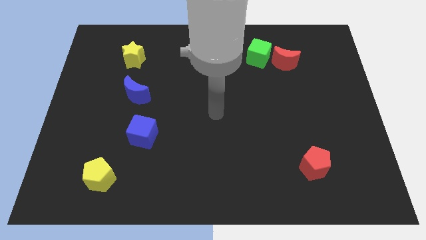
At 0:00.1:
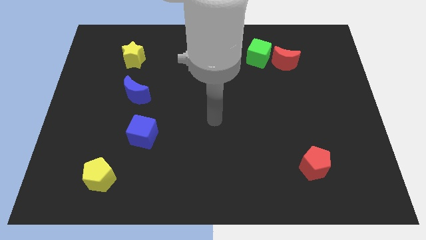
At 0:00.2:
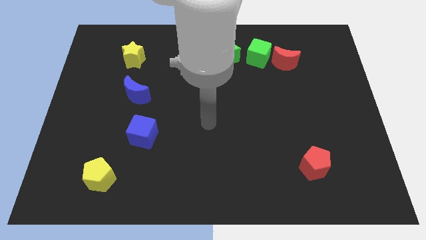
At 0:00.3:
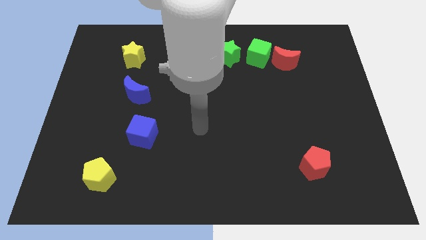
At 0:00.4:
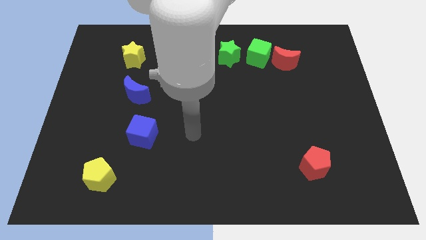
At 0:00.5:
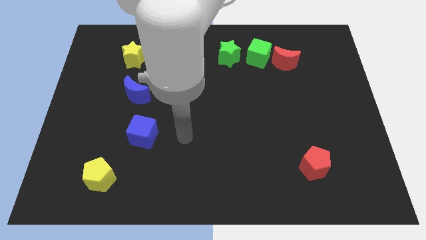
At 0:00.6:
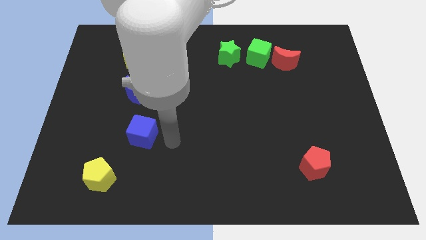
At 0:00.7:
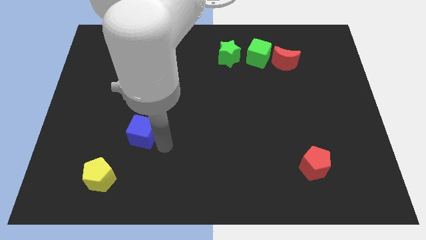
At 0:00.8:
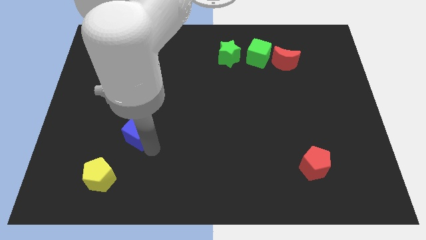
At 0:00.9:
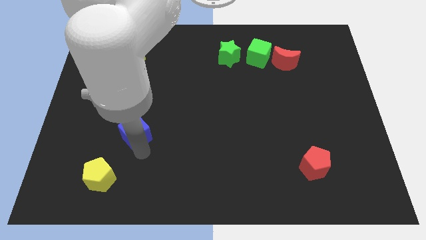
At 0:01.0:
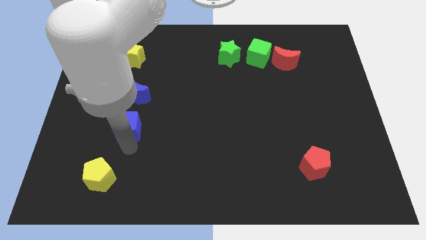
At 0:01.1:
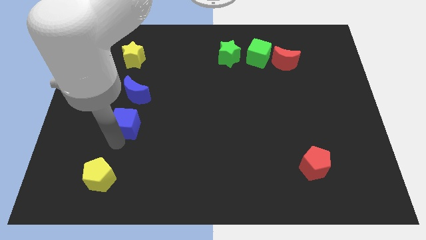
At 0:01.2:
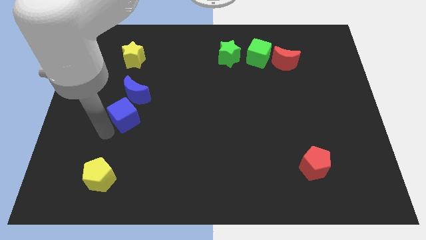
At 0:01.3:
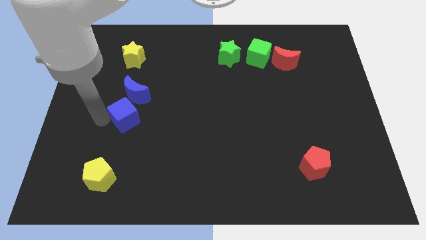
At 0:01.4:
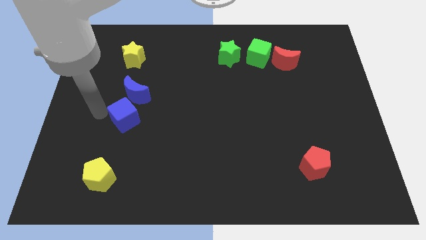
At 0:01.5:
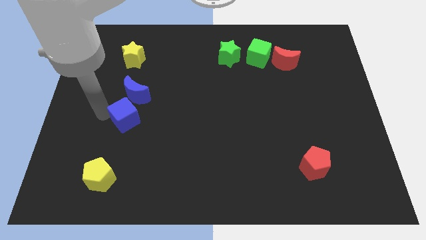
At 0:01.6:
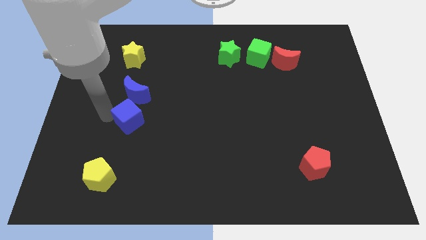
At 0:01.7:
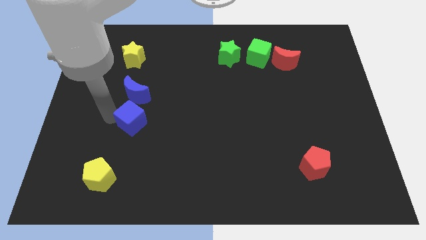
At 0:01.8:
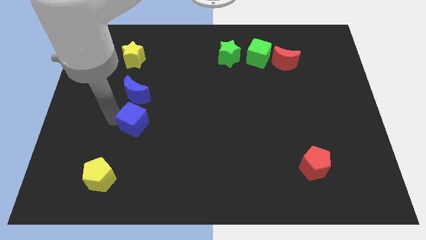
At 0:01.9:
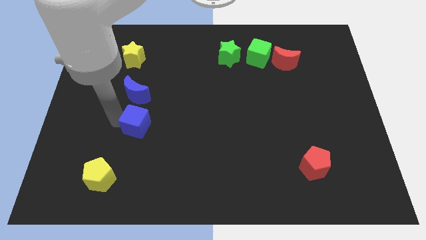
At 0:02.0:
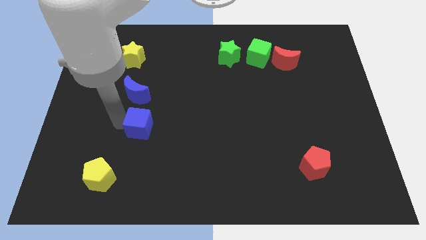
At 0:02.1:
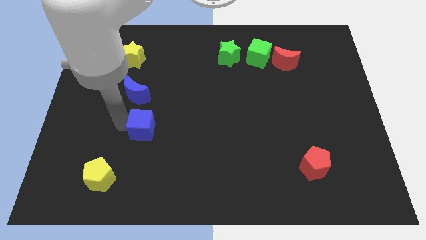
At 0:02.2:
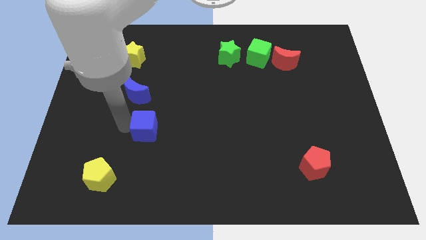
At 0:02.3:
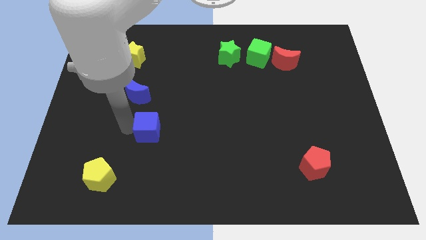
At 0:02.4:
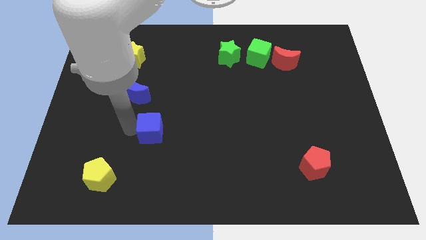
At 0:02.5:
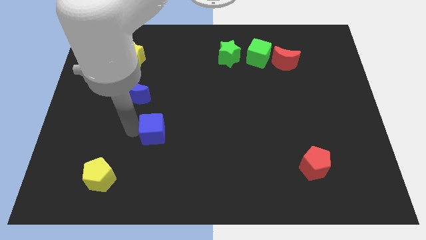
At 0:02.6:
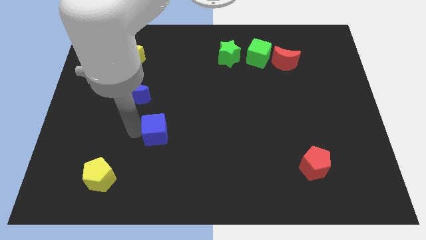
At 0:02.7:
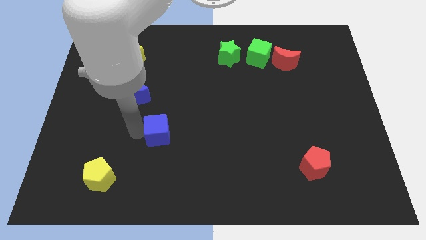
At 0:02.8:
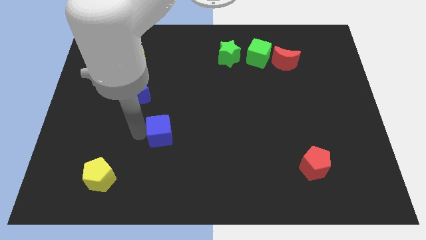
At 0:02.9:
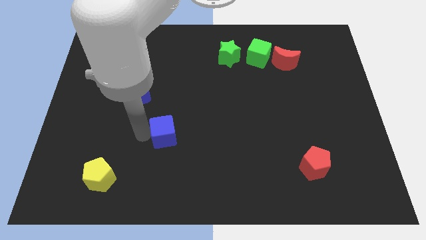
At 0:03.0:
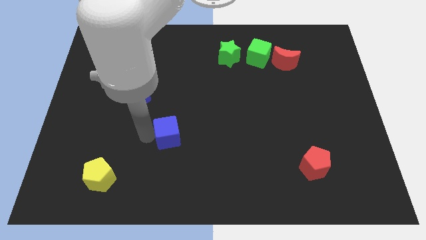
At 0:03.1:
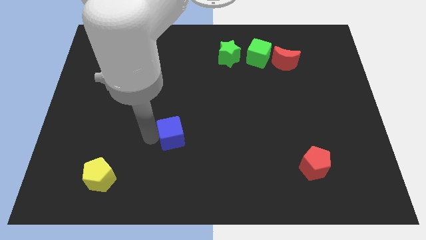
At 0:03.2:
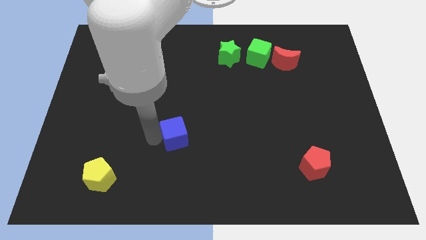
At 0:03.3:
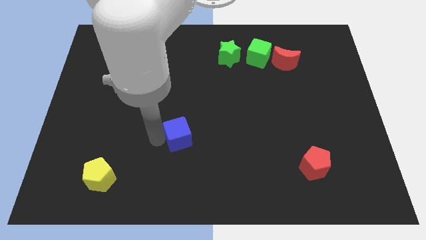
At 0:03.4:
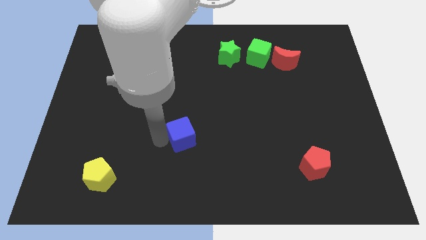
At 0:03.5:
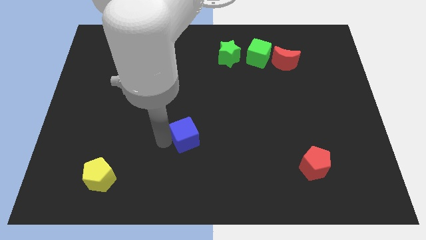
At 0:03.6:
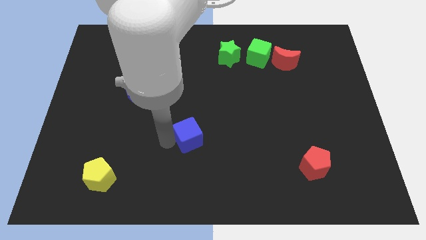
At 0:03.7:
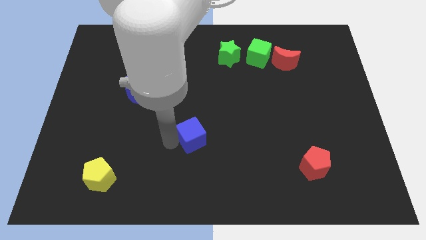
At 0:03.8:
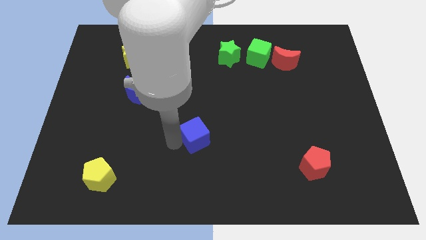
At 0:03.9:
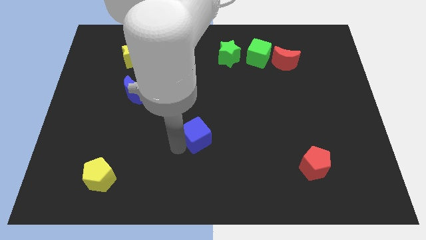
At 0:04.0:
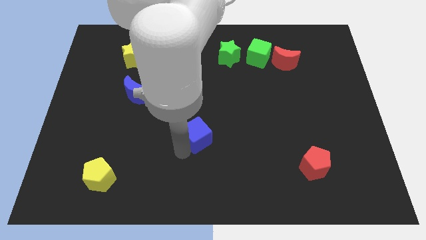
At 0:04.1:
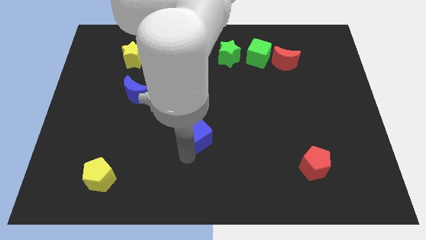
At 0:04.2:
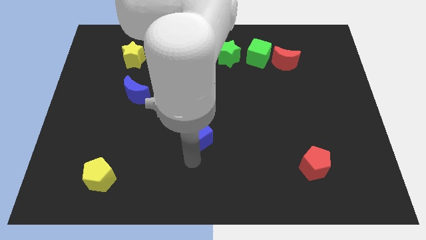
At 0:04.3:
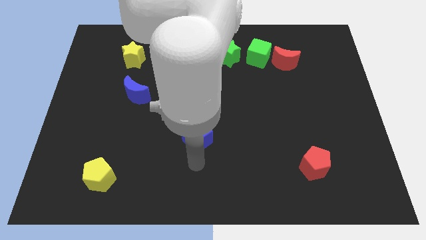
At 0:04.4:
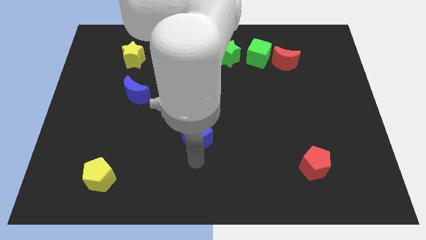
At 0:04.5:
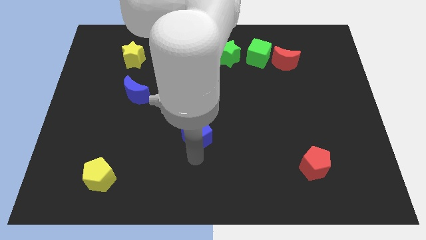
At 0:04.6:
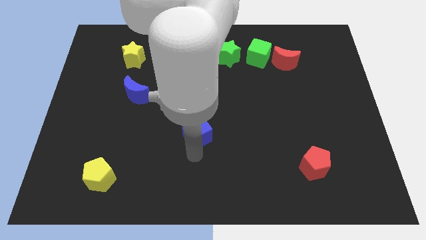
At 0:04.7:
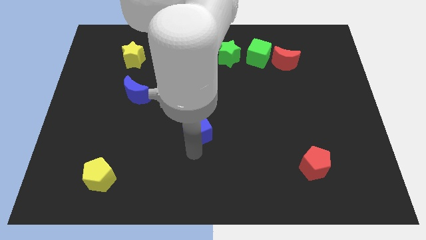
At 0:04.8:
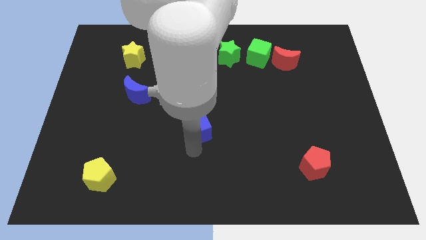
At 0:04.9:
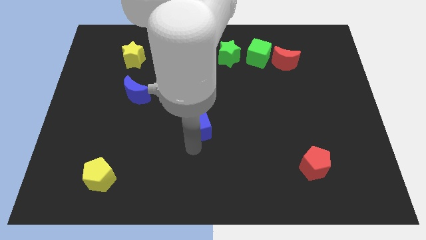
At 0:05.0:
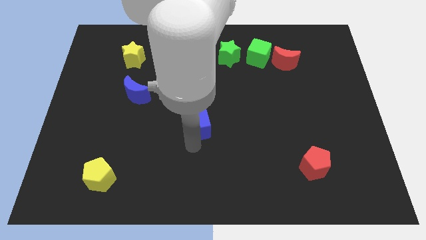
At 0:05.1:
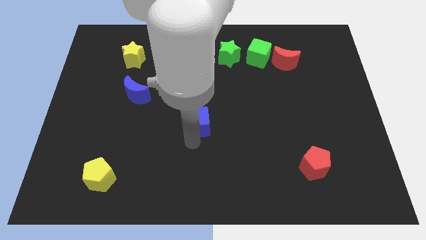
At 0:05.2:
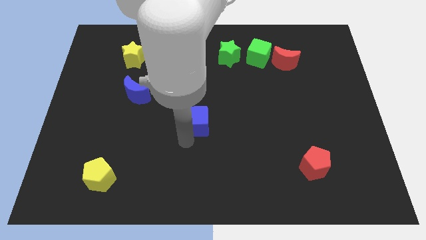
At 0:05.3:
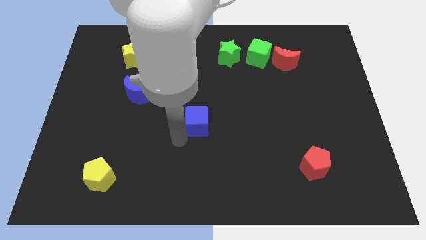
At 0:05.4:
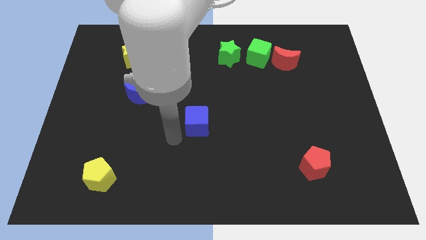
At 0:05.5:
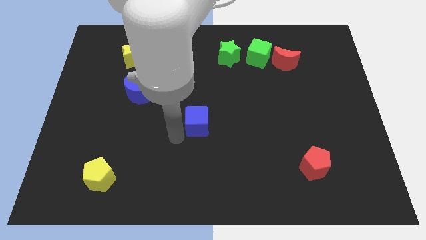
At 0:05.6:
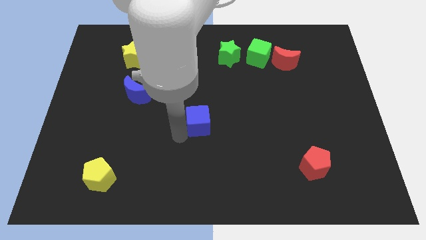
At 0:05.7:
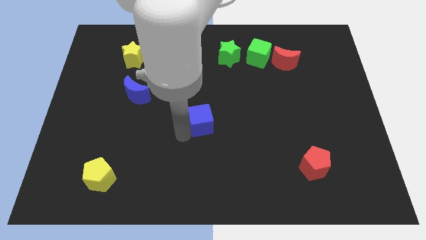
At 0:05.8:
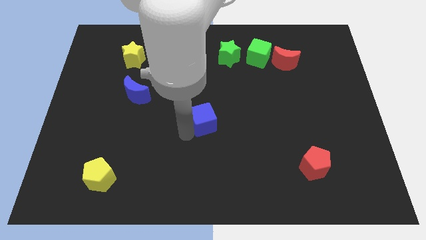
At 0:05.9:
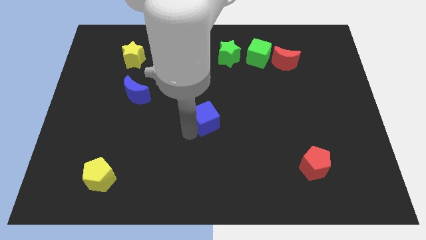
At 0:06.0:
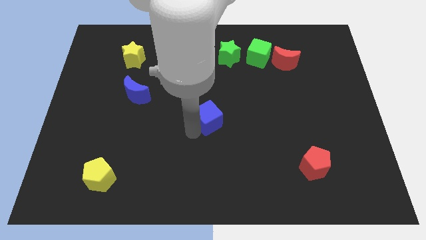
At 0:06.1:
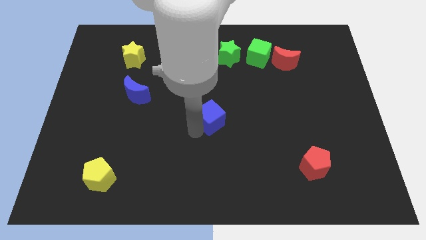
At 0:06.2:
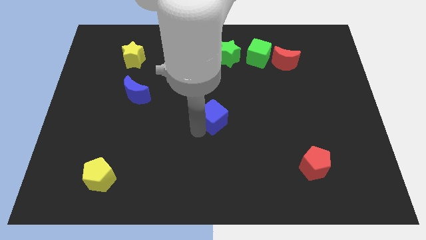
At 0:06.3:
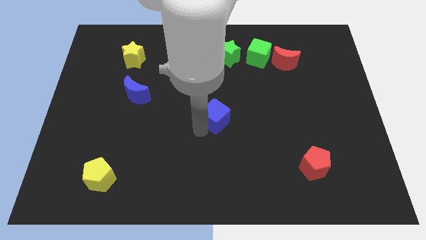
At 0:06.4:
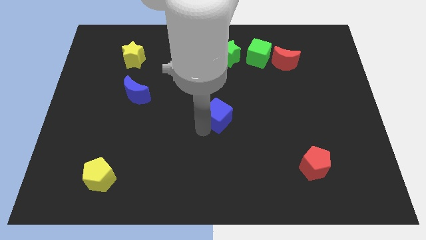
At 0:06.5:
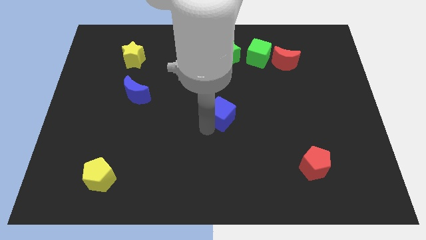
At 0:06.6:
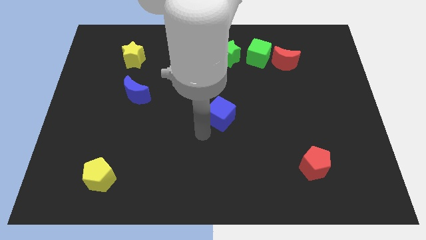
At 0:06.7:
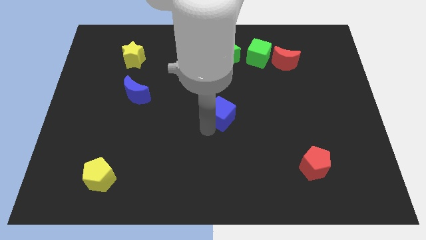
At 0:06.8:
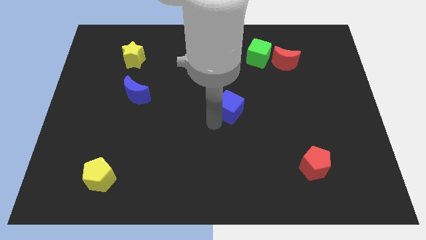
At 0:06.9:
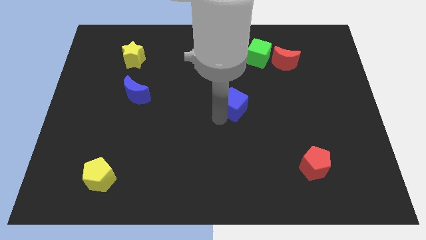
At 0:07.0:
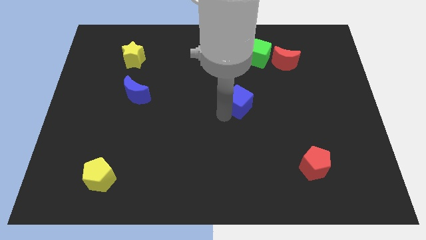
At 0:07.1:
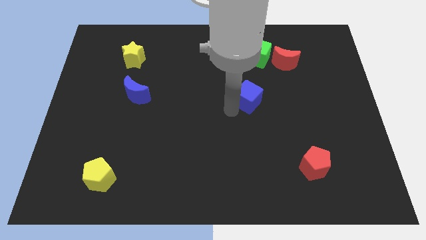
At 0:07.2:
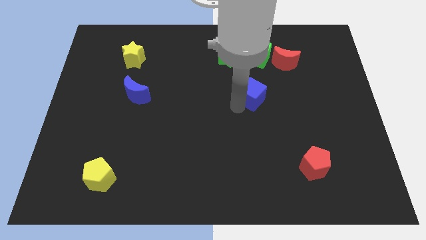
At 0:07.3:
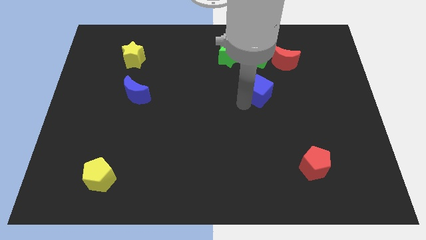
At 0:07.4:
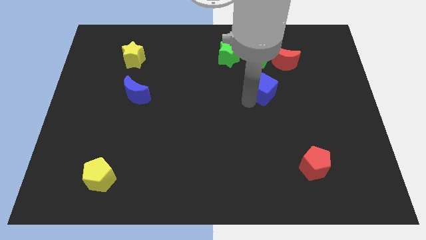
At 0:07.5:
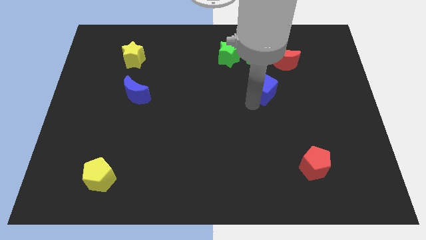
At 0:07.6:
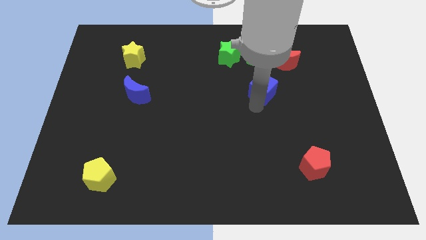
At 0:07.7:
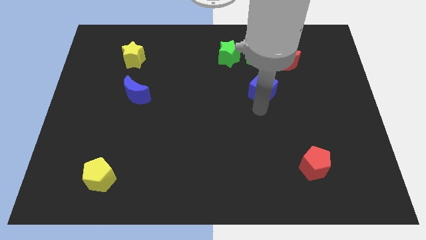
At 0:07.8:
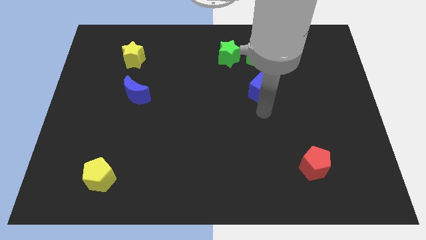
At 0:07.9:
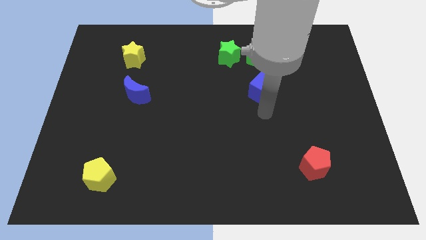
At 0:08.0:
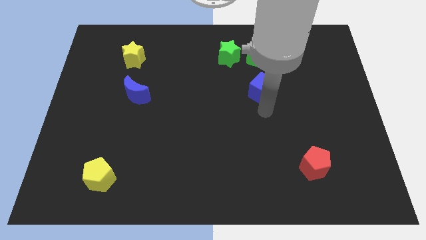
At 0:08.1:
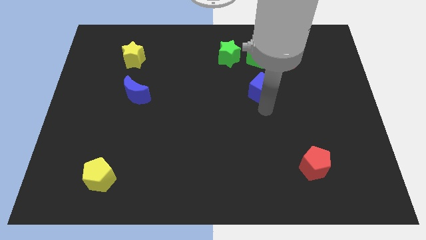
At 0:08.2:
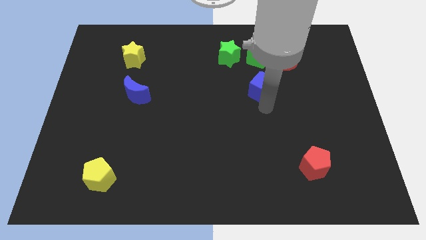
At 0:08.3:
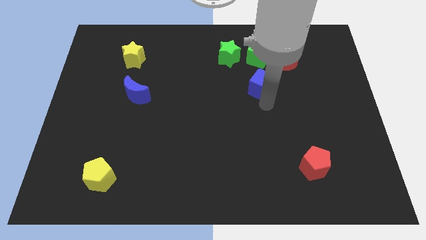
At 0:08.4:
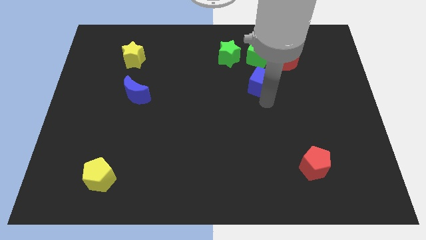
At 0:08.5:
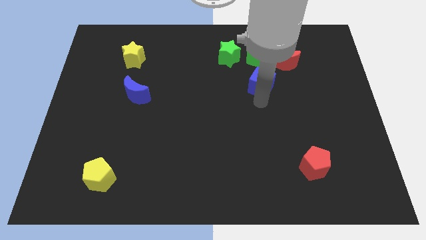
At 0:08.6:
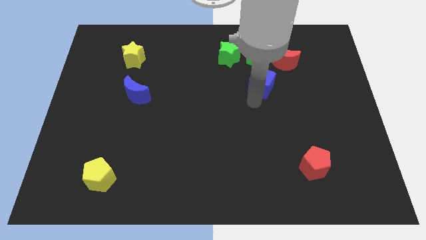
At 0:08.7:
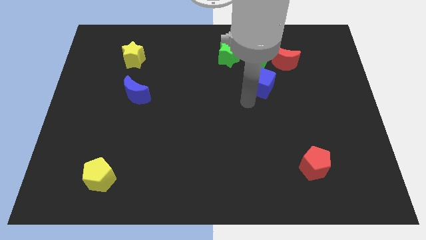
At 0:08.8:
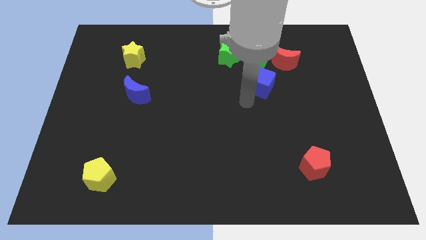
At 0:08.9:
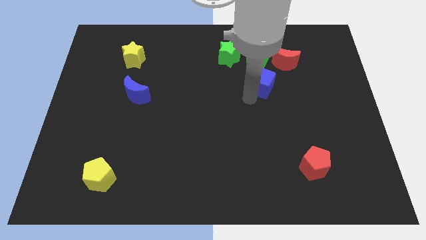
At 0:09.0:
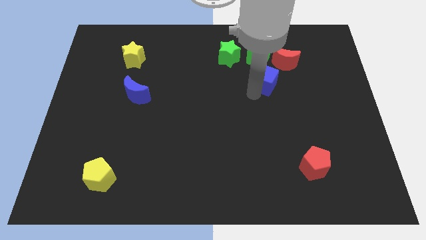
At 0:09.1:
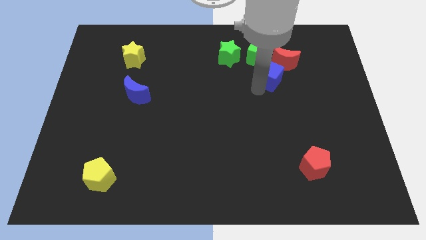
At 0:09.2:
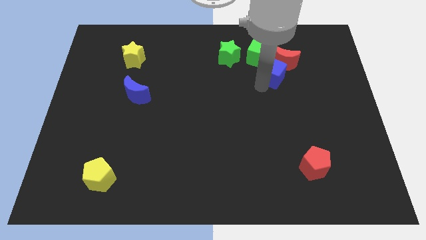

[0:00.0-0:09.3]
slide the blue cube towards the red moon
